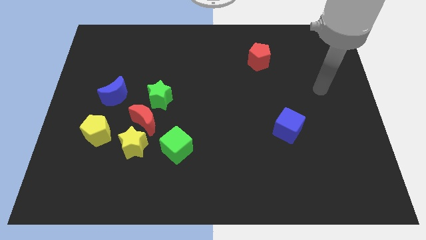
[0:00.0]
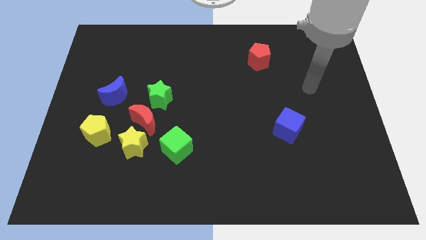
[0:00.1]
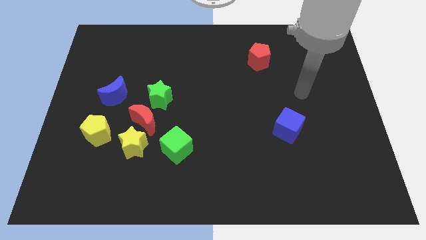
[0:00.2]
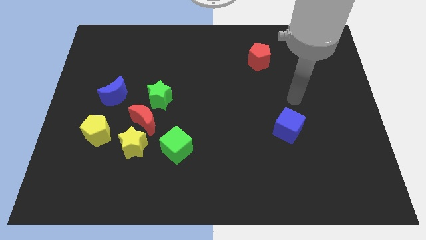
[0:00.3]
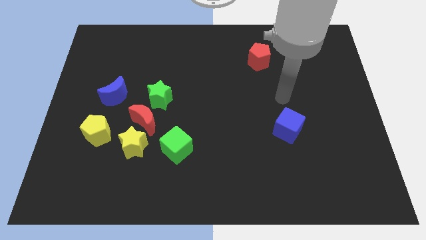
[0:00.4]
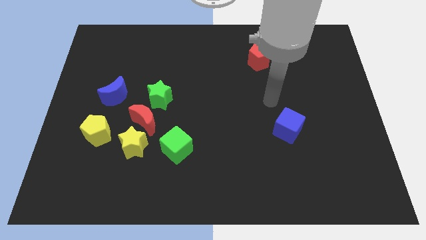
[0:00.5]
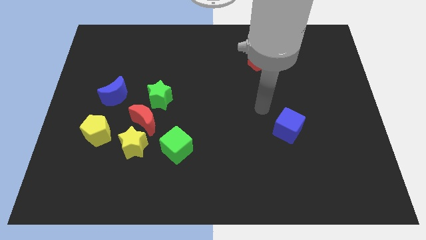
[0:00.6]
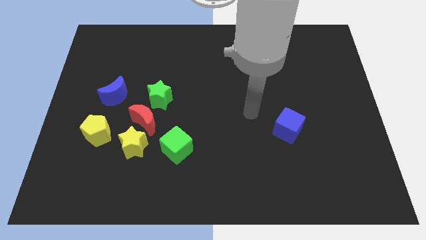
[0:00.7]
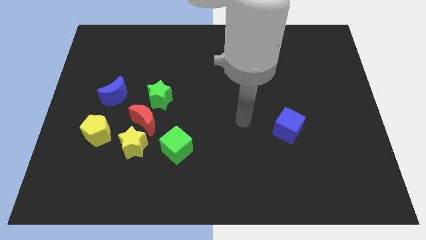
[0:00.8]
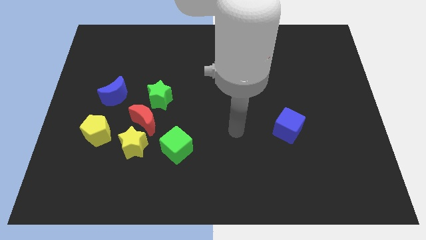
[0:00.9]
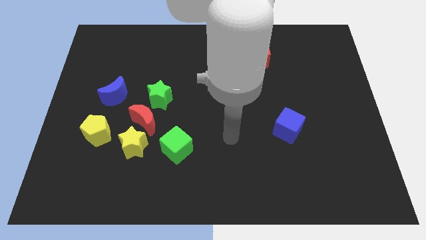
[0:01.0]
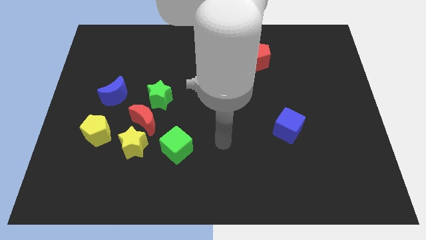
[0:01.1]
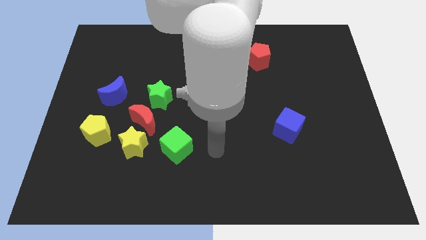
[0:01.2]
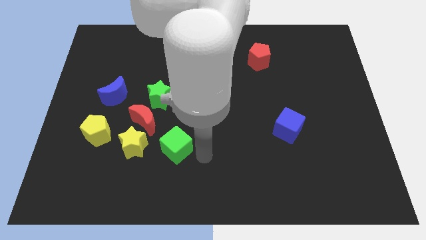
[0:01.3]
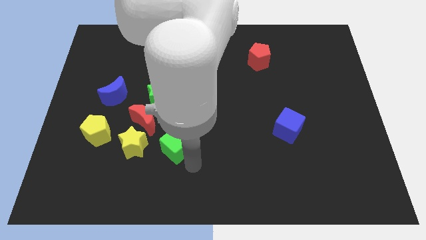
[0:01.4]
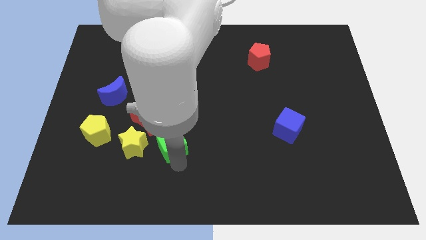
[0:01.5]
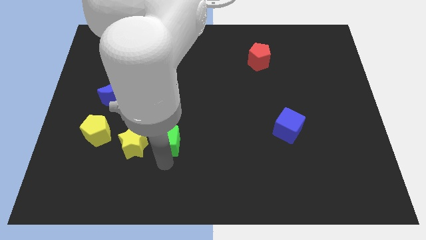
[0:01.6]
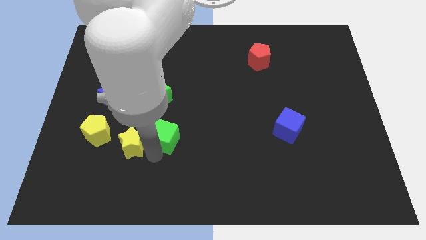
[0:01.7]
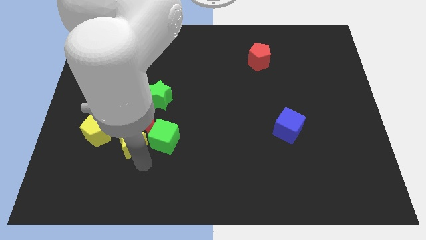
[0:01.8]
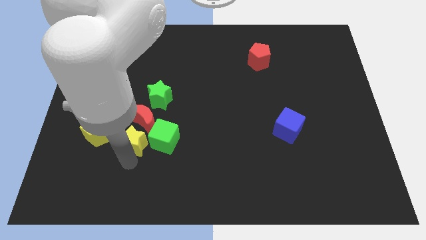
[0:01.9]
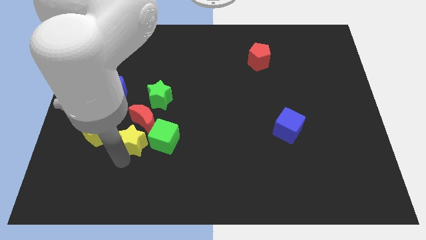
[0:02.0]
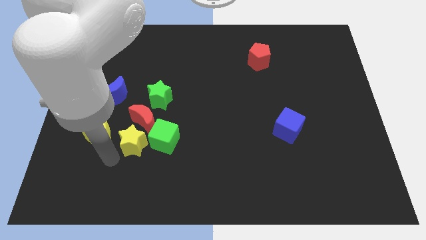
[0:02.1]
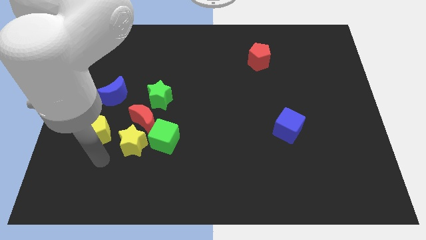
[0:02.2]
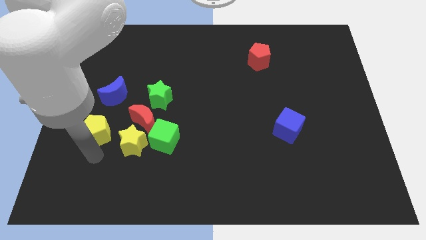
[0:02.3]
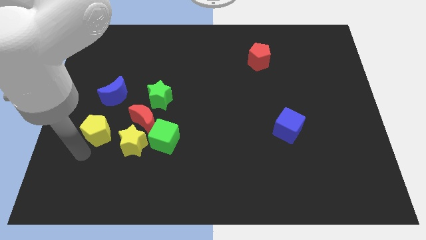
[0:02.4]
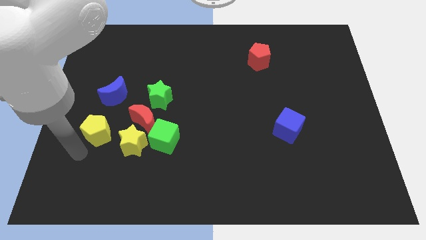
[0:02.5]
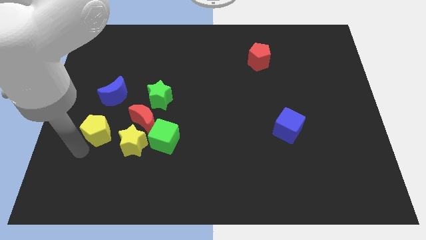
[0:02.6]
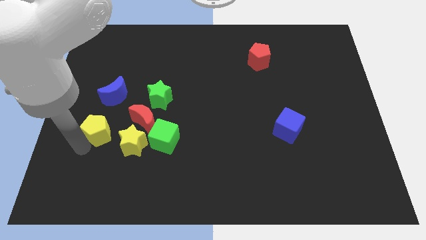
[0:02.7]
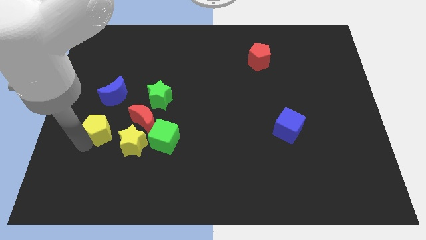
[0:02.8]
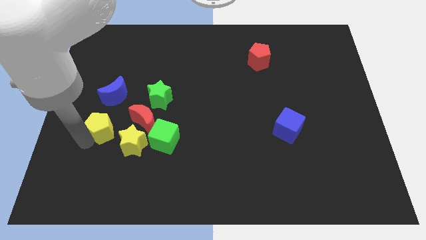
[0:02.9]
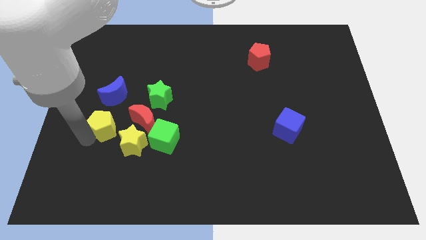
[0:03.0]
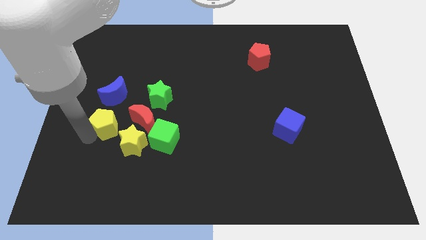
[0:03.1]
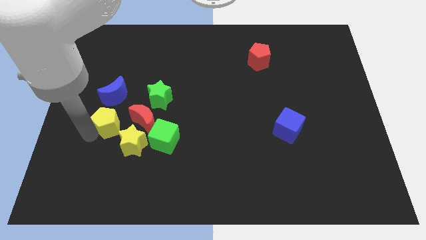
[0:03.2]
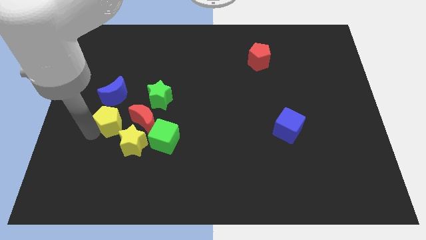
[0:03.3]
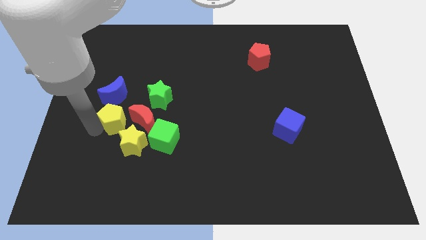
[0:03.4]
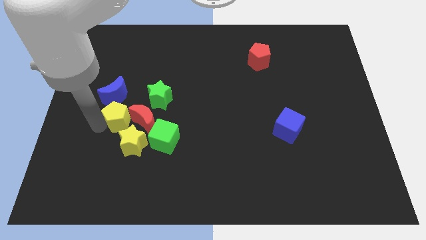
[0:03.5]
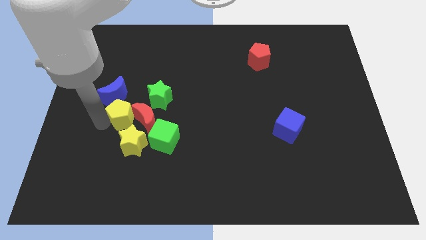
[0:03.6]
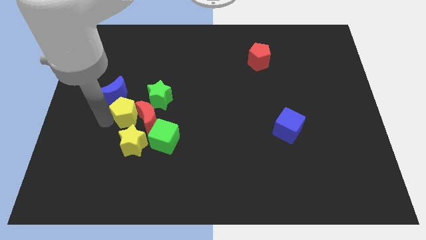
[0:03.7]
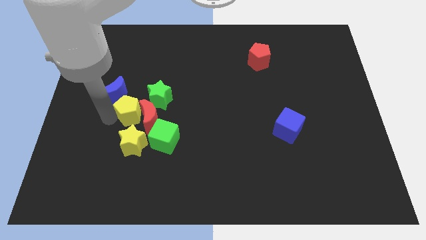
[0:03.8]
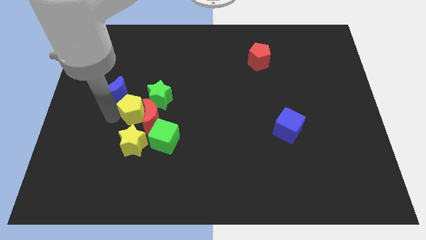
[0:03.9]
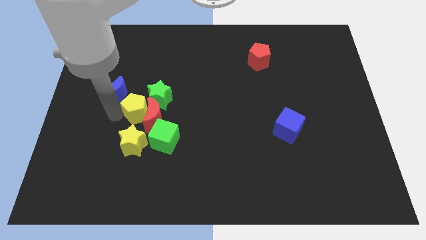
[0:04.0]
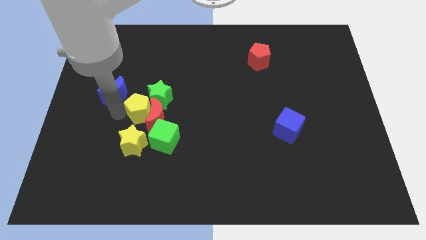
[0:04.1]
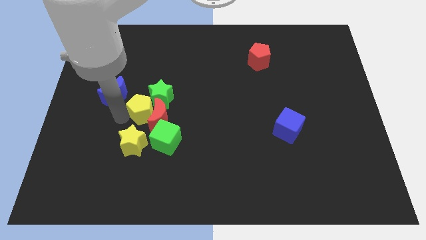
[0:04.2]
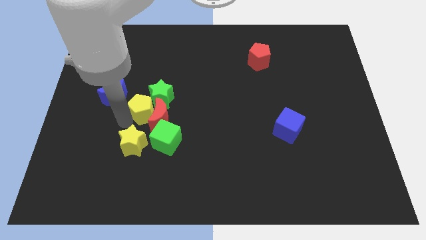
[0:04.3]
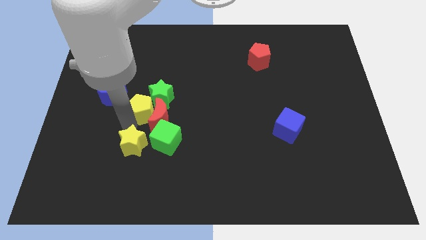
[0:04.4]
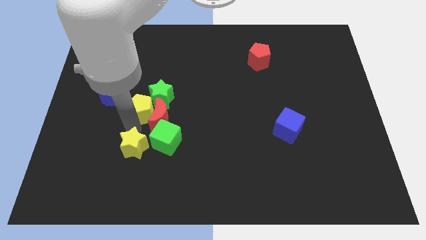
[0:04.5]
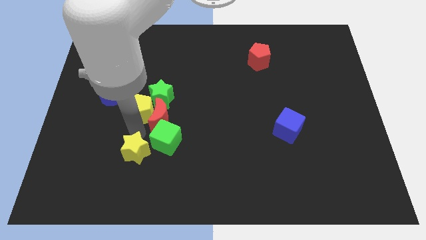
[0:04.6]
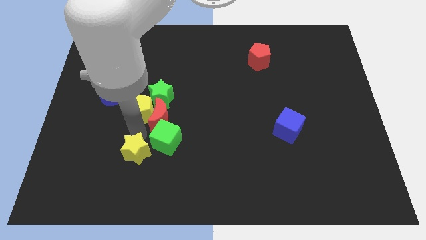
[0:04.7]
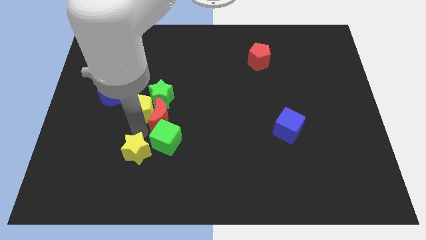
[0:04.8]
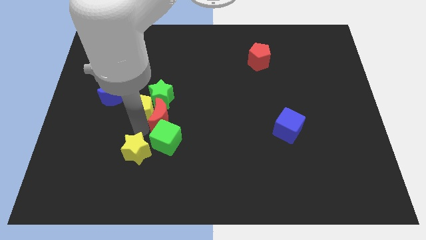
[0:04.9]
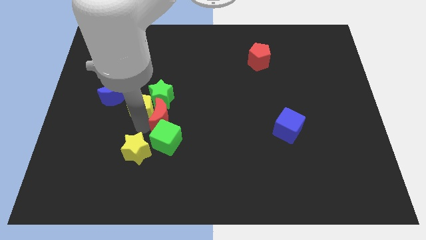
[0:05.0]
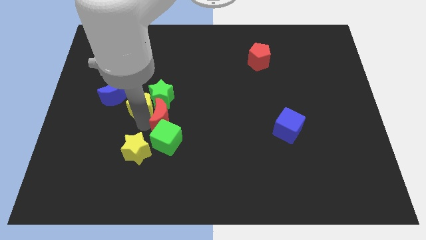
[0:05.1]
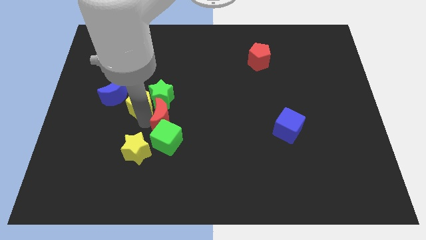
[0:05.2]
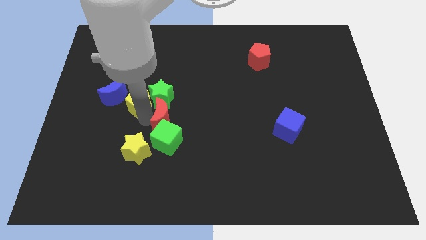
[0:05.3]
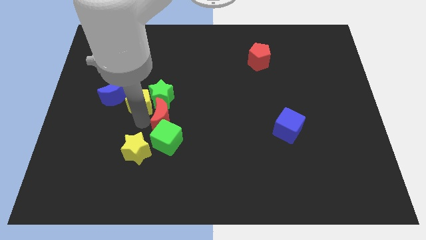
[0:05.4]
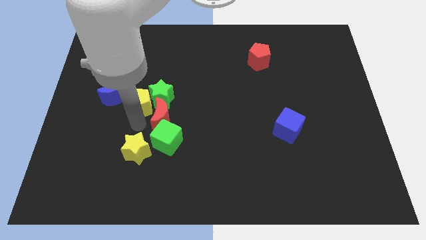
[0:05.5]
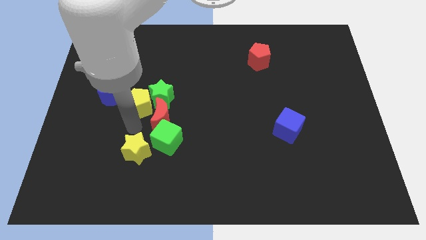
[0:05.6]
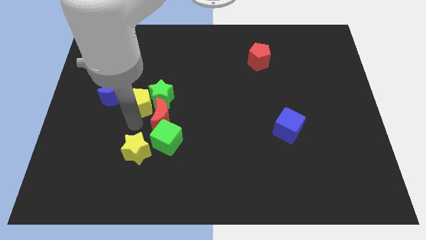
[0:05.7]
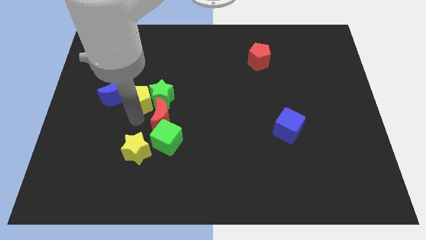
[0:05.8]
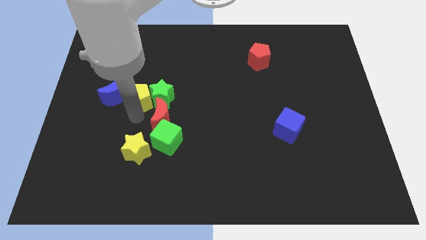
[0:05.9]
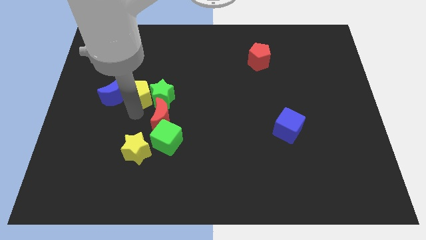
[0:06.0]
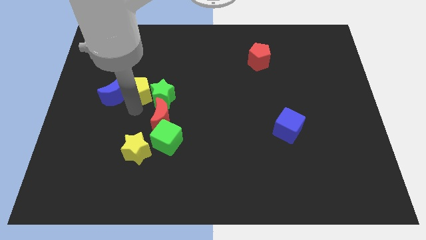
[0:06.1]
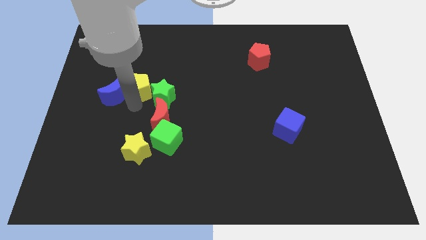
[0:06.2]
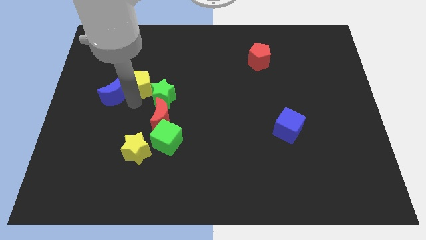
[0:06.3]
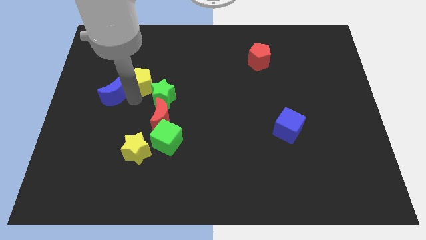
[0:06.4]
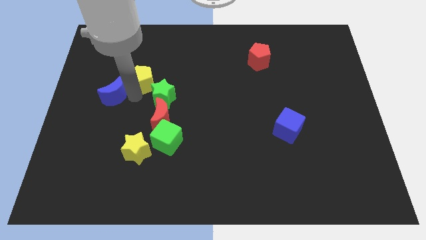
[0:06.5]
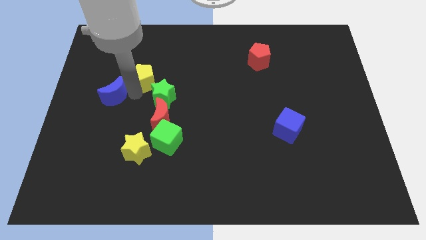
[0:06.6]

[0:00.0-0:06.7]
move the yellow pentagon above the green star

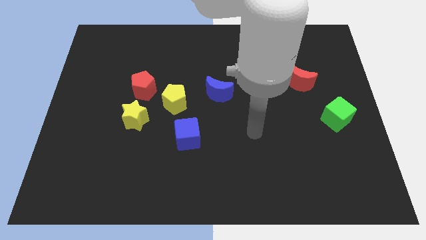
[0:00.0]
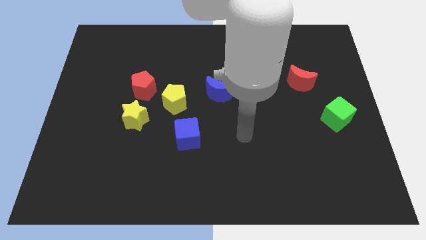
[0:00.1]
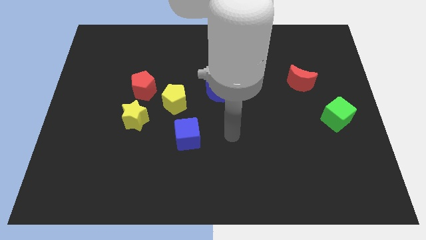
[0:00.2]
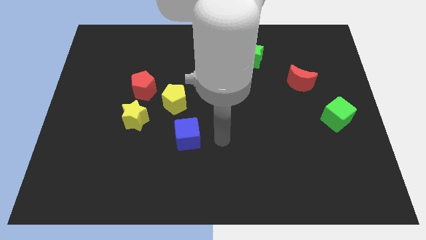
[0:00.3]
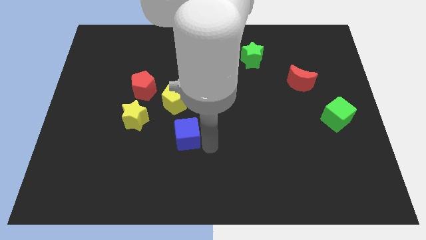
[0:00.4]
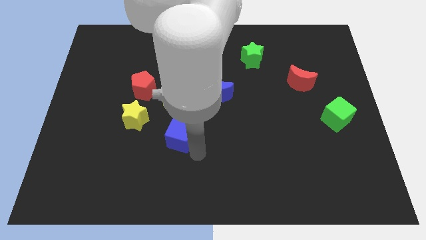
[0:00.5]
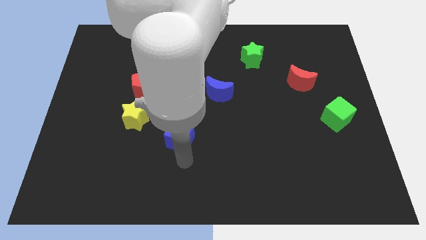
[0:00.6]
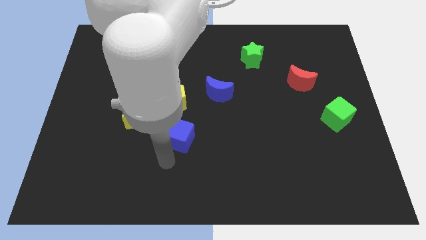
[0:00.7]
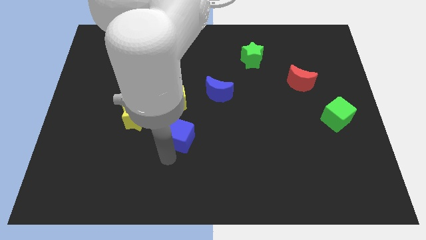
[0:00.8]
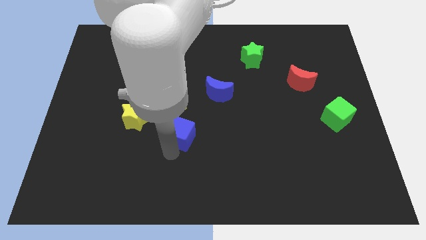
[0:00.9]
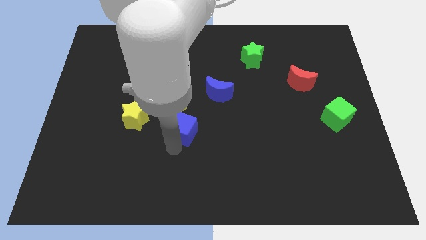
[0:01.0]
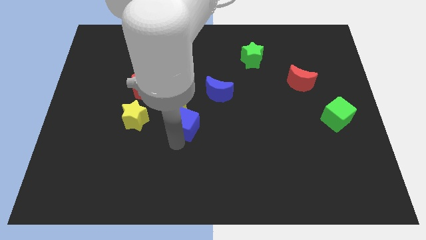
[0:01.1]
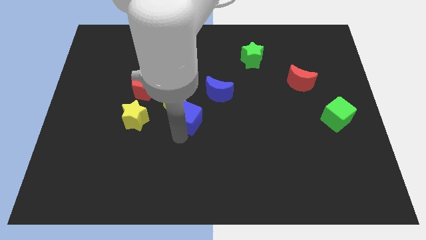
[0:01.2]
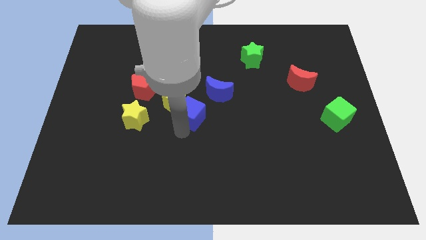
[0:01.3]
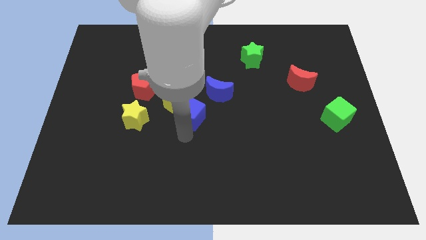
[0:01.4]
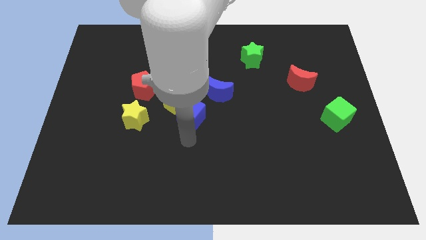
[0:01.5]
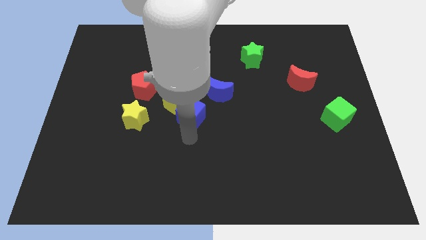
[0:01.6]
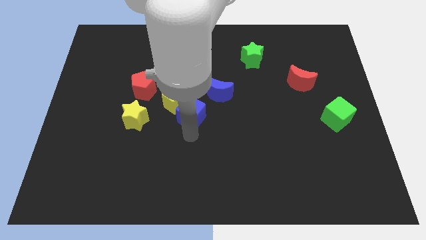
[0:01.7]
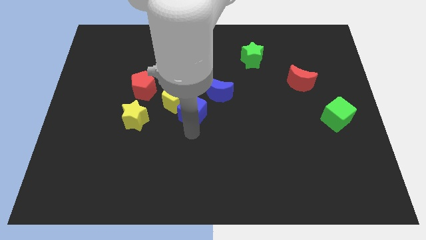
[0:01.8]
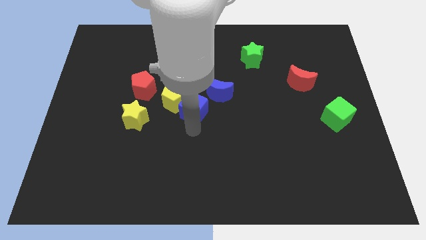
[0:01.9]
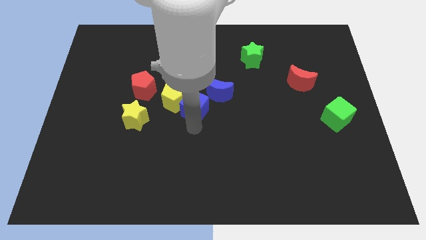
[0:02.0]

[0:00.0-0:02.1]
slide the blue cube to the left side of the blue moon
